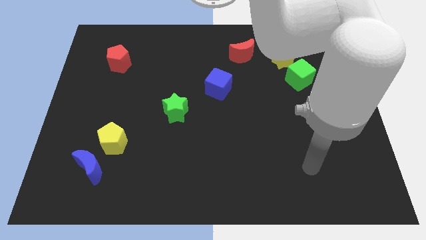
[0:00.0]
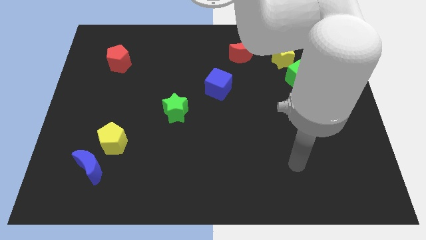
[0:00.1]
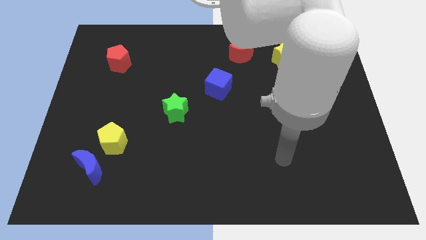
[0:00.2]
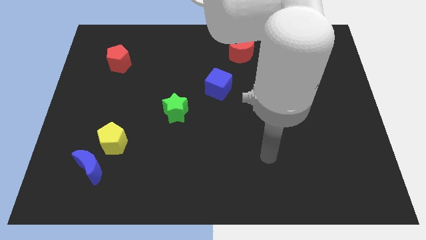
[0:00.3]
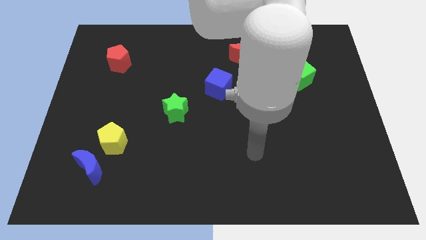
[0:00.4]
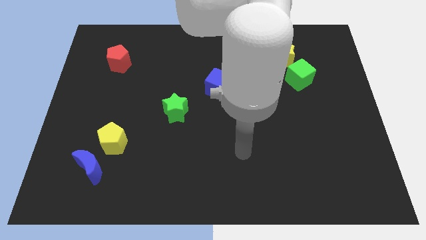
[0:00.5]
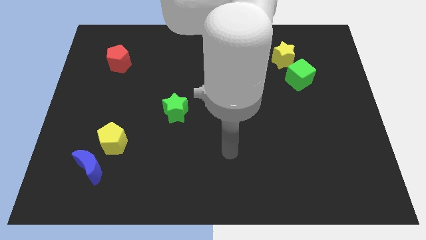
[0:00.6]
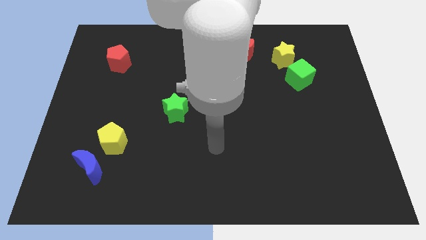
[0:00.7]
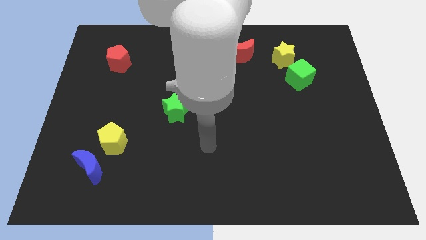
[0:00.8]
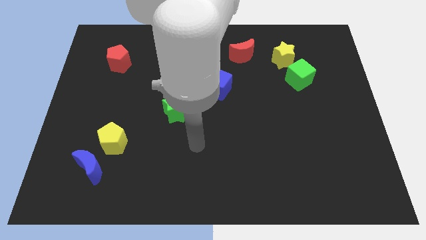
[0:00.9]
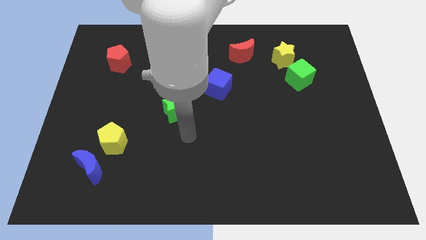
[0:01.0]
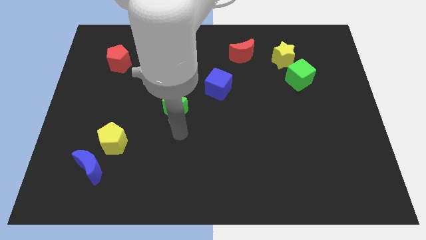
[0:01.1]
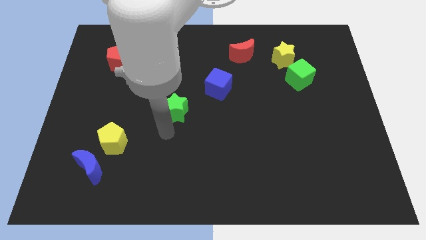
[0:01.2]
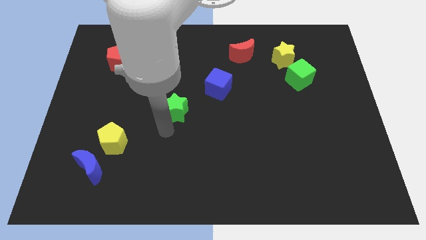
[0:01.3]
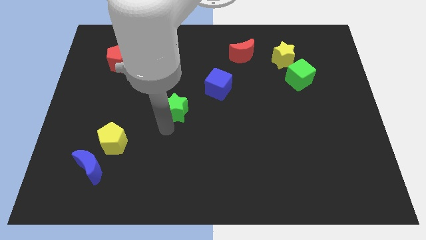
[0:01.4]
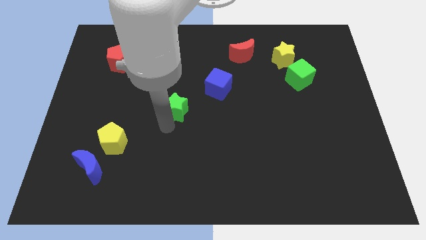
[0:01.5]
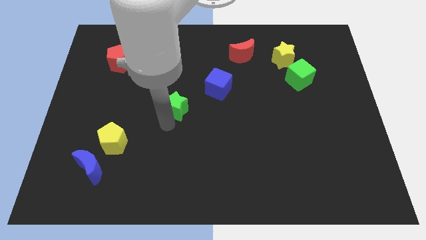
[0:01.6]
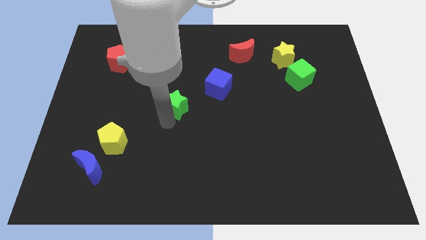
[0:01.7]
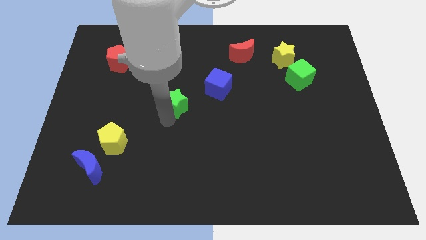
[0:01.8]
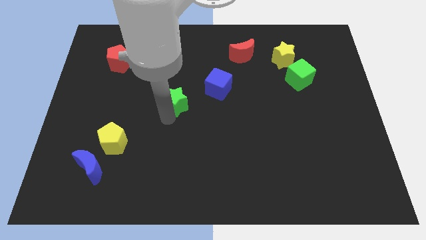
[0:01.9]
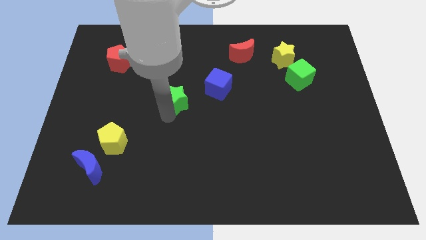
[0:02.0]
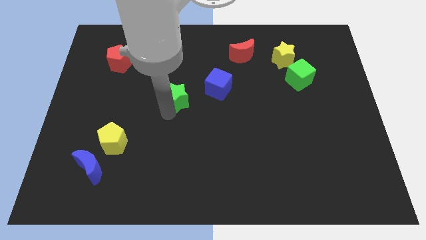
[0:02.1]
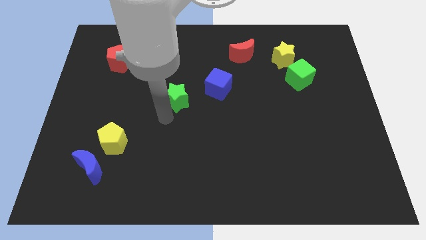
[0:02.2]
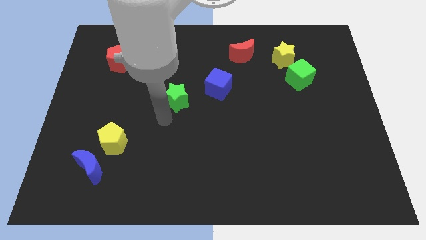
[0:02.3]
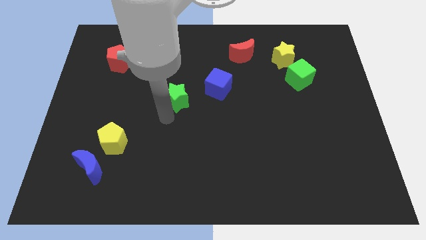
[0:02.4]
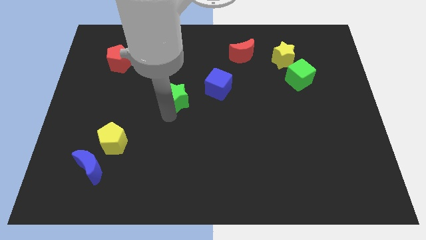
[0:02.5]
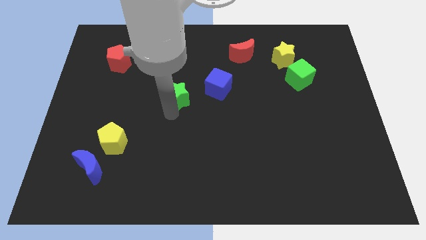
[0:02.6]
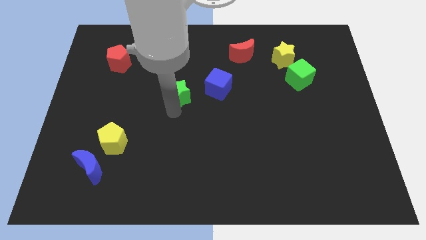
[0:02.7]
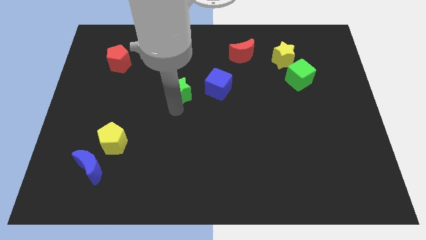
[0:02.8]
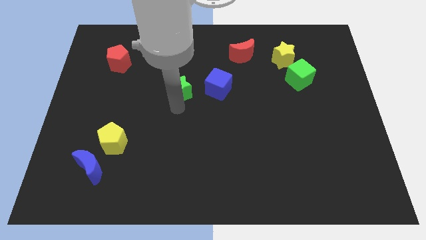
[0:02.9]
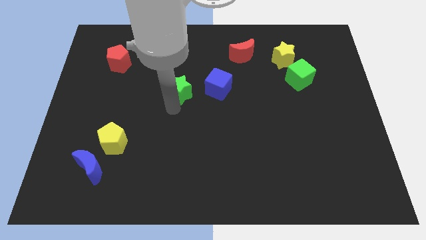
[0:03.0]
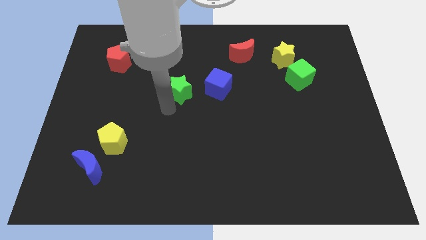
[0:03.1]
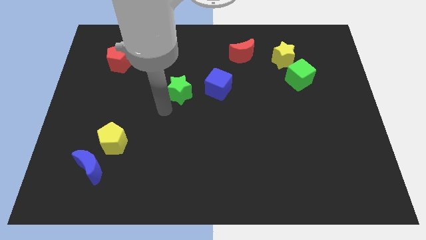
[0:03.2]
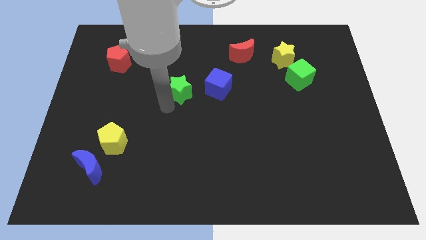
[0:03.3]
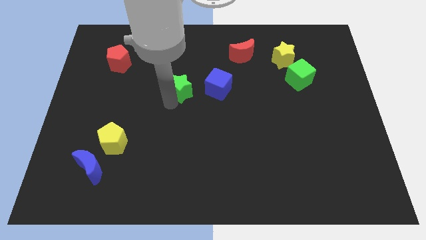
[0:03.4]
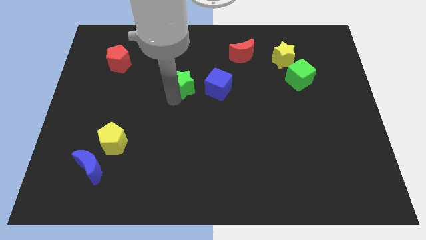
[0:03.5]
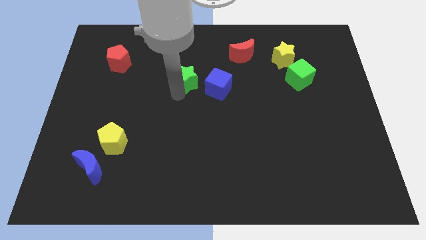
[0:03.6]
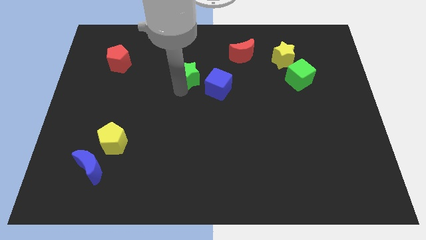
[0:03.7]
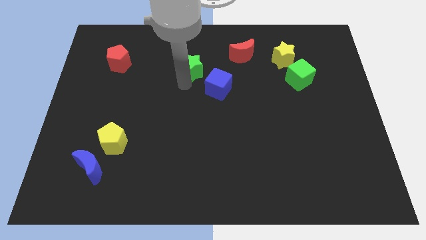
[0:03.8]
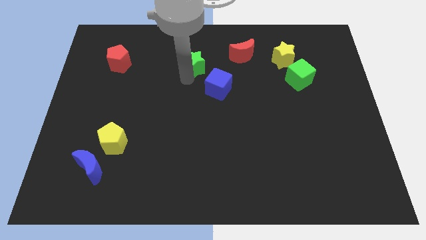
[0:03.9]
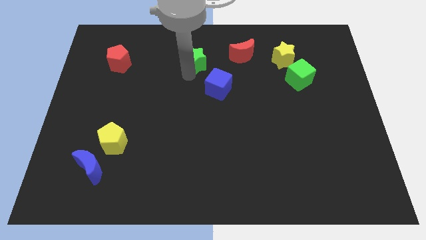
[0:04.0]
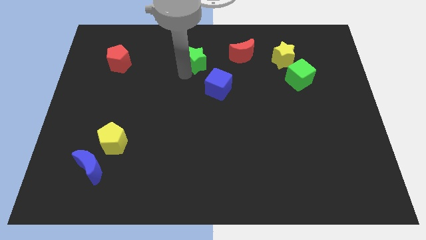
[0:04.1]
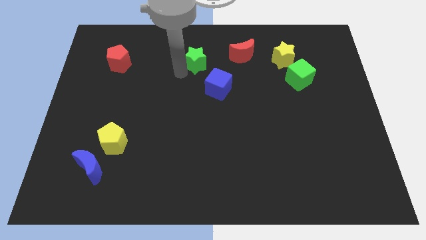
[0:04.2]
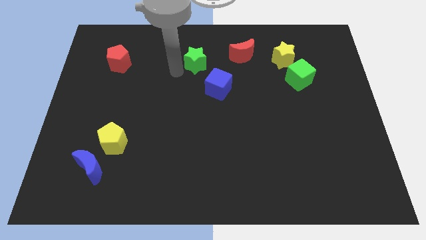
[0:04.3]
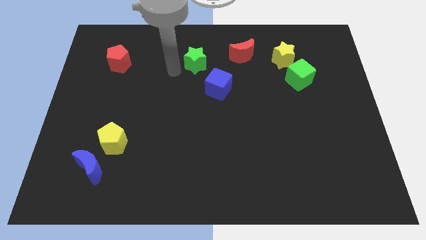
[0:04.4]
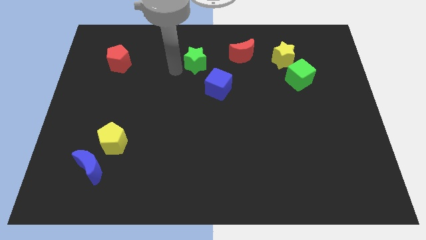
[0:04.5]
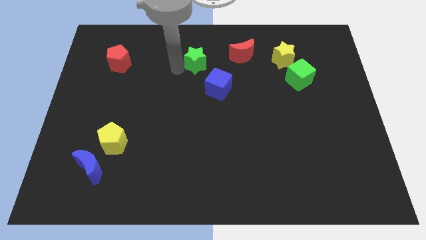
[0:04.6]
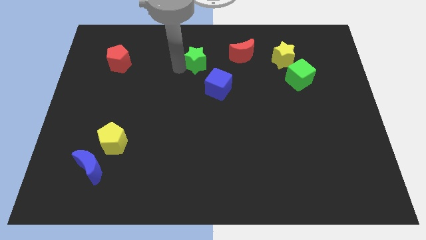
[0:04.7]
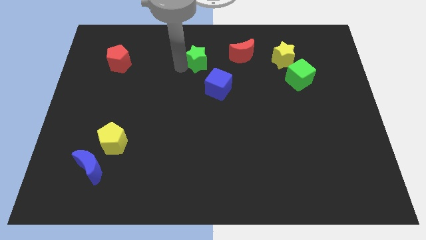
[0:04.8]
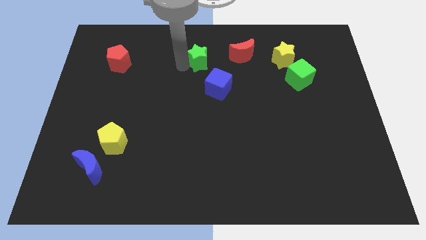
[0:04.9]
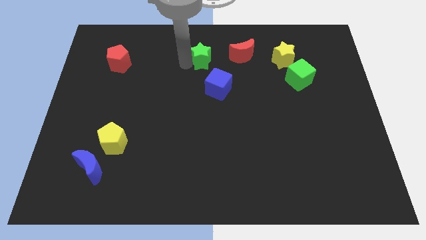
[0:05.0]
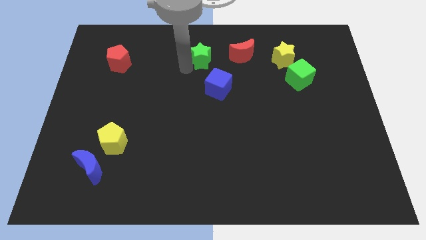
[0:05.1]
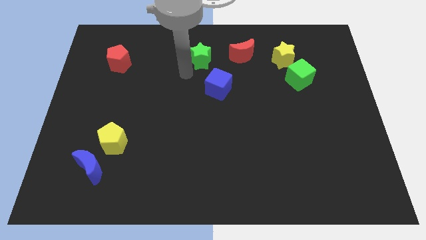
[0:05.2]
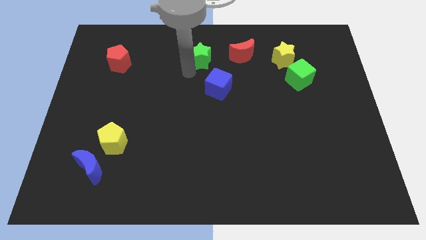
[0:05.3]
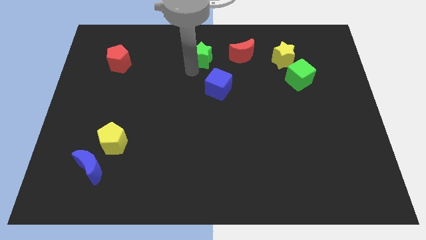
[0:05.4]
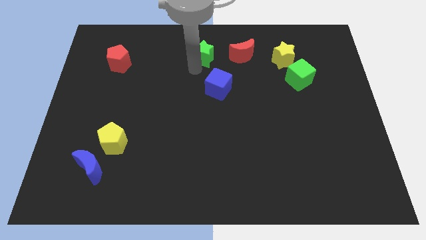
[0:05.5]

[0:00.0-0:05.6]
slide the green star to the towards your base
